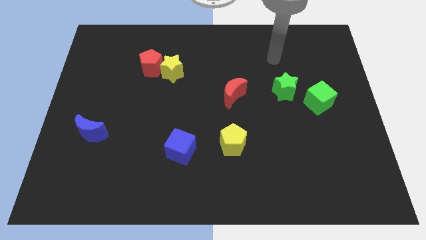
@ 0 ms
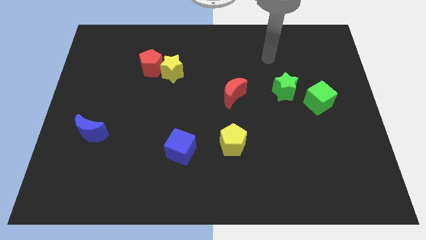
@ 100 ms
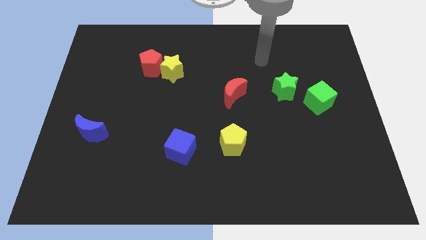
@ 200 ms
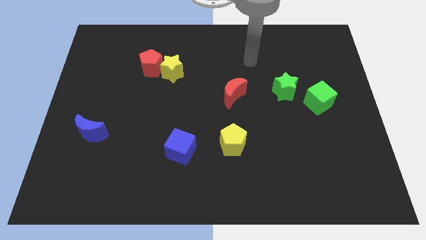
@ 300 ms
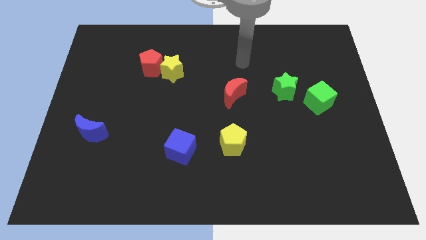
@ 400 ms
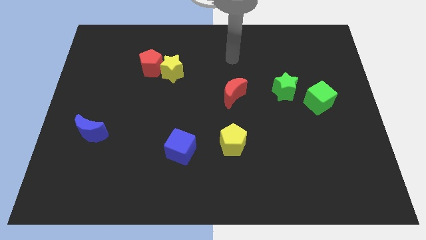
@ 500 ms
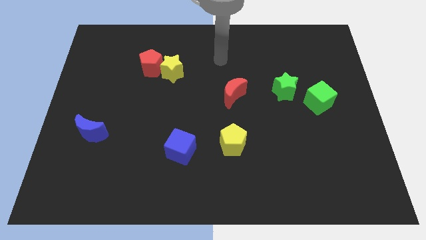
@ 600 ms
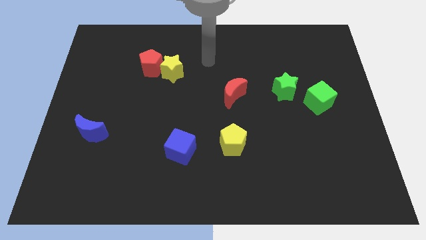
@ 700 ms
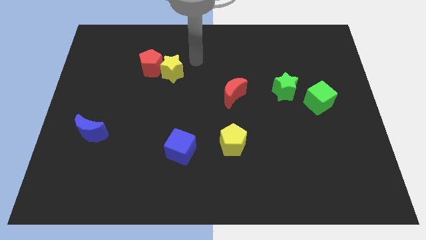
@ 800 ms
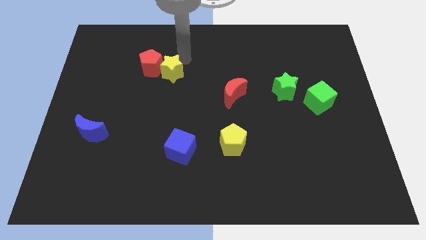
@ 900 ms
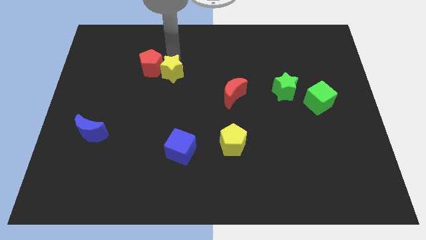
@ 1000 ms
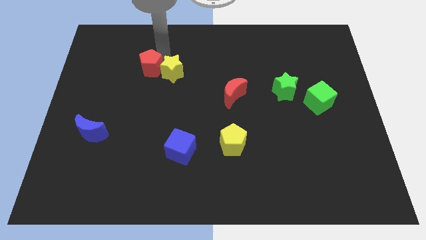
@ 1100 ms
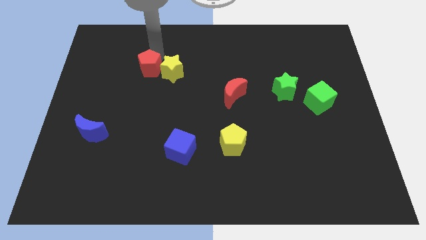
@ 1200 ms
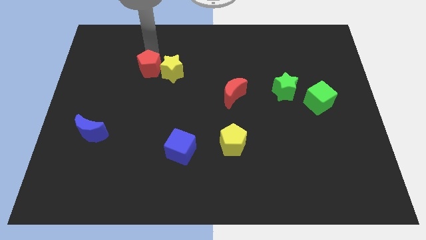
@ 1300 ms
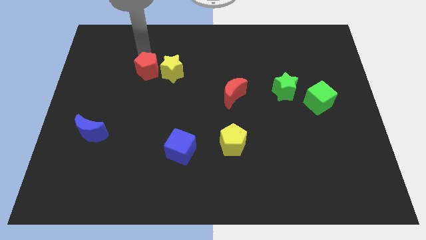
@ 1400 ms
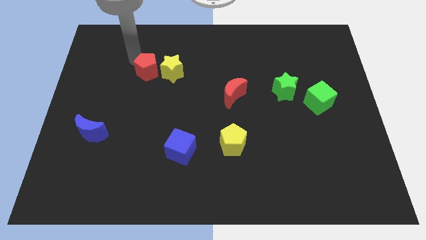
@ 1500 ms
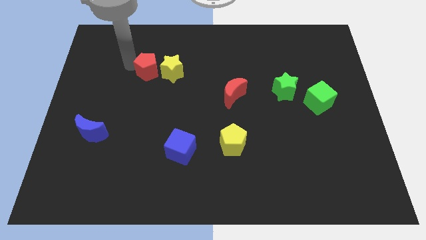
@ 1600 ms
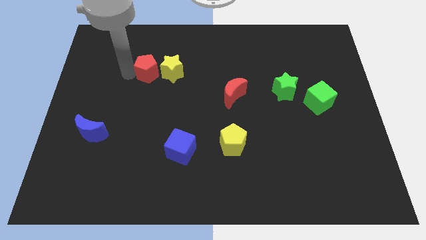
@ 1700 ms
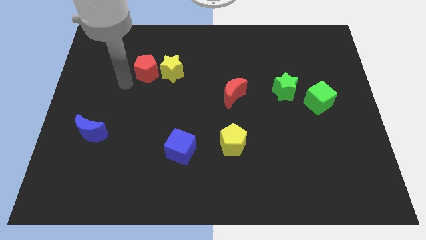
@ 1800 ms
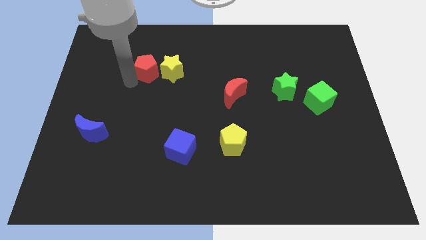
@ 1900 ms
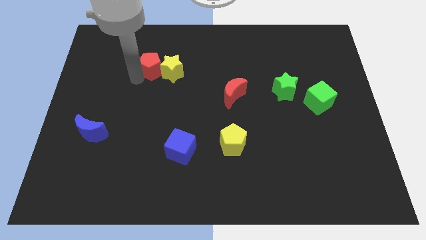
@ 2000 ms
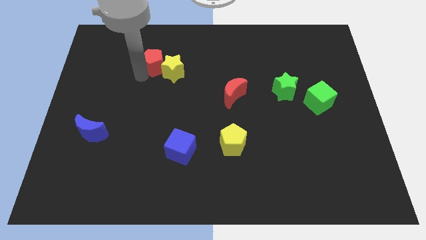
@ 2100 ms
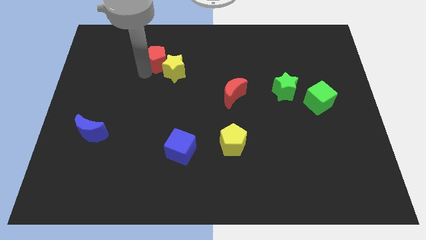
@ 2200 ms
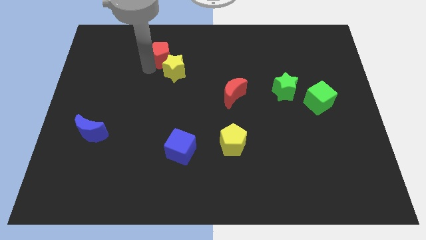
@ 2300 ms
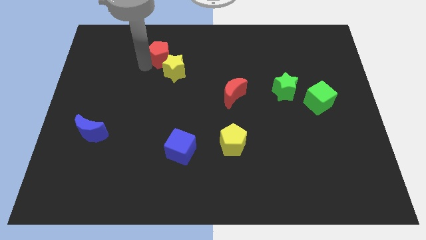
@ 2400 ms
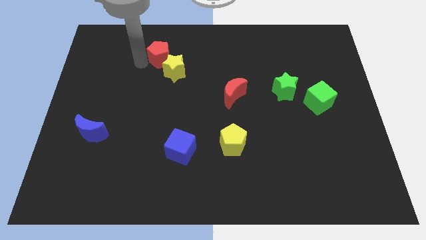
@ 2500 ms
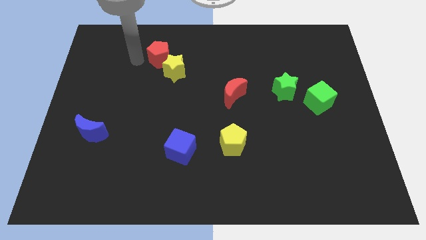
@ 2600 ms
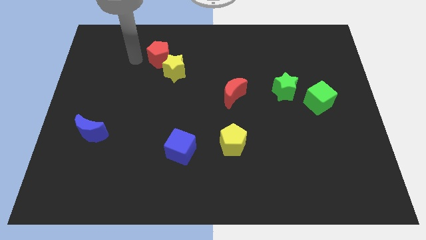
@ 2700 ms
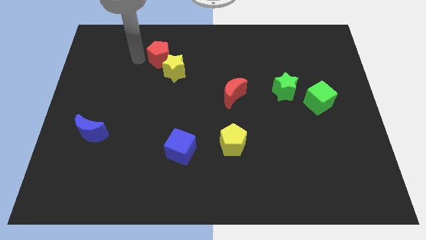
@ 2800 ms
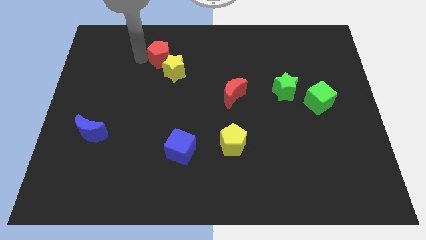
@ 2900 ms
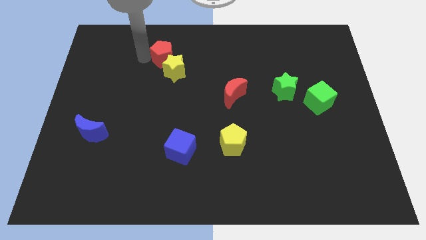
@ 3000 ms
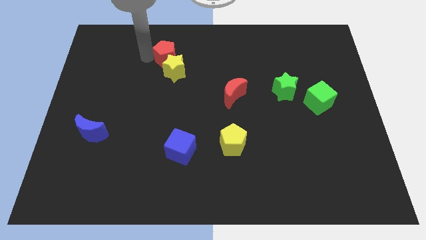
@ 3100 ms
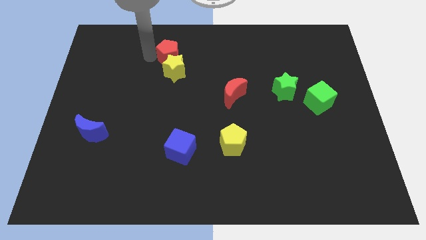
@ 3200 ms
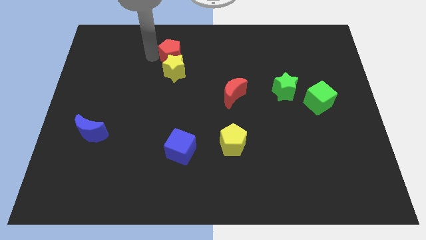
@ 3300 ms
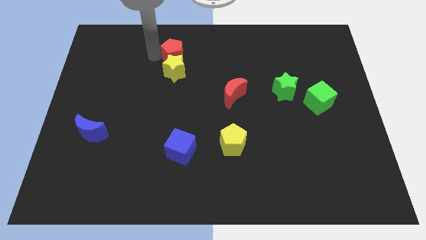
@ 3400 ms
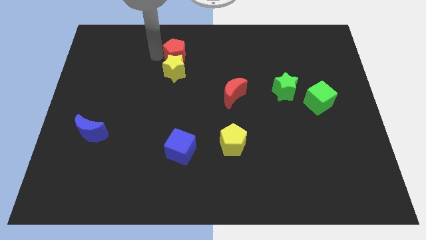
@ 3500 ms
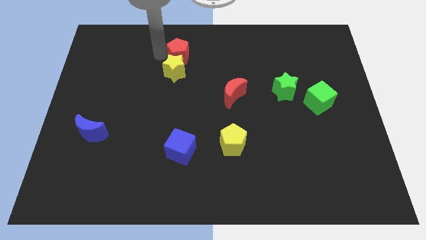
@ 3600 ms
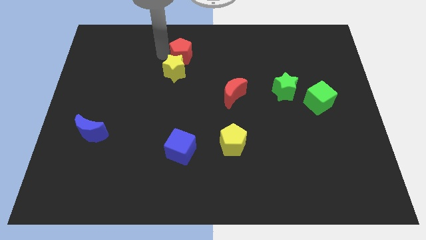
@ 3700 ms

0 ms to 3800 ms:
slide the red pentagon right a little bit

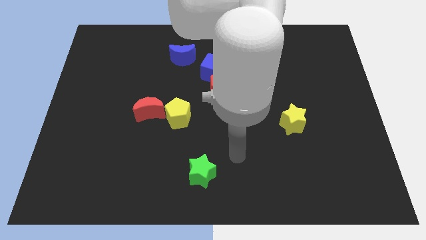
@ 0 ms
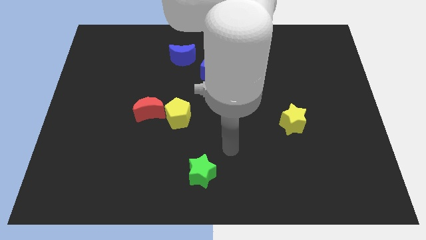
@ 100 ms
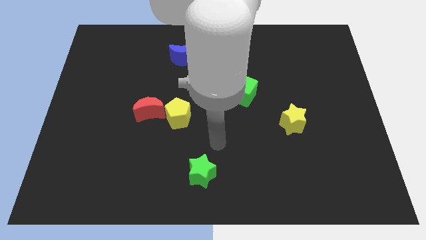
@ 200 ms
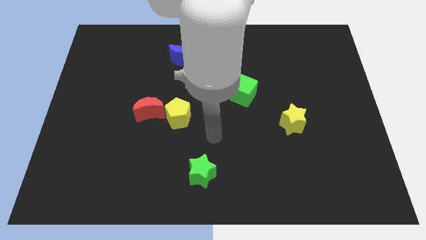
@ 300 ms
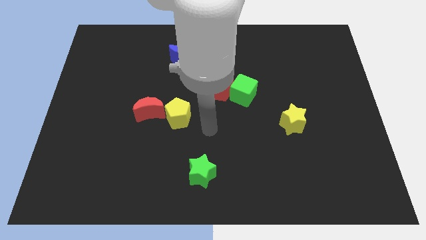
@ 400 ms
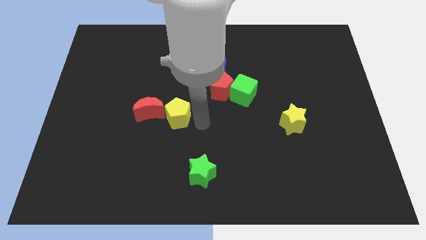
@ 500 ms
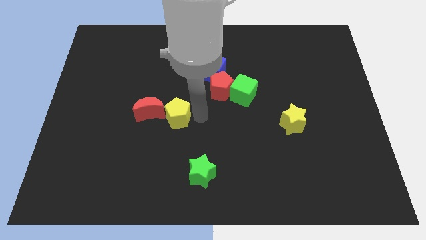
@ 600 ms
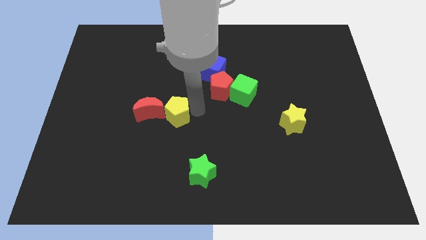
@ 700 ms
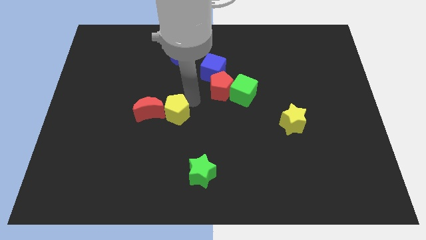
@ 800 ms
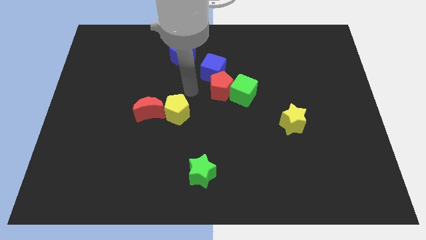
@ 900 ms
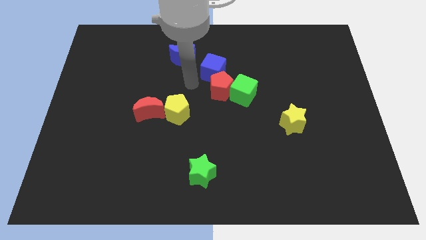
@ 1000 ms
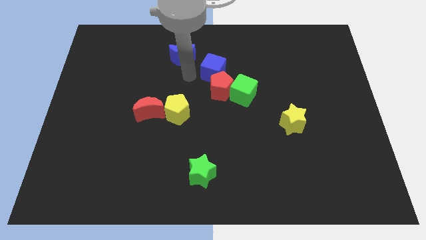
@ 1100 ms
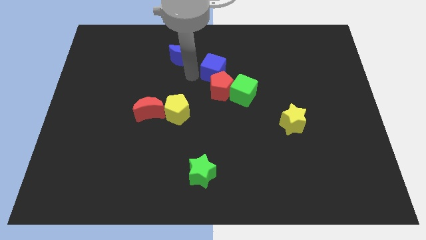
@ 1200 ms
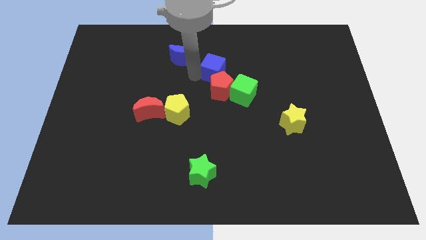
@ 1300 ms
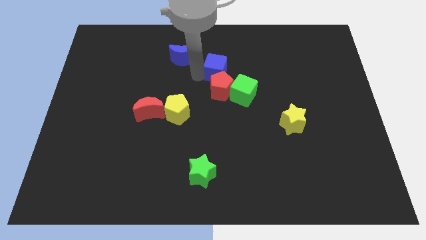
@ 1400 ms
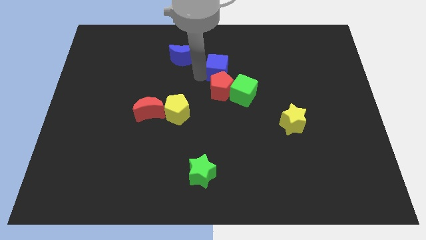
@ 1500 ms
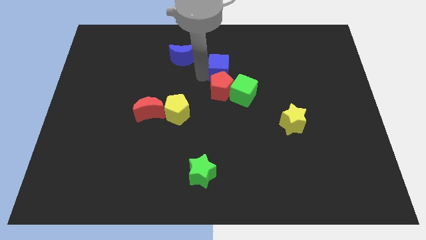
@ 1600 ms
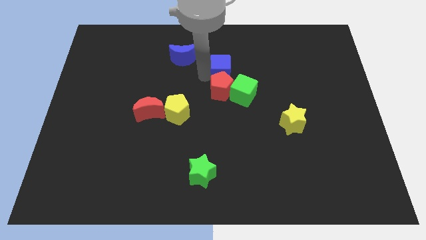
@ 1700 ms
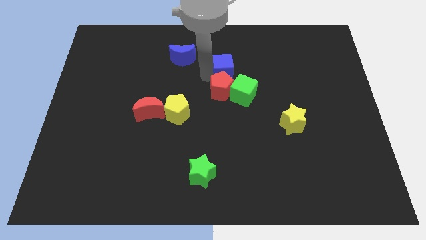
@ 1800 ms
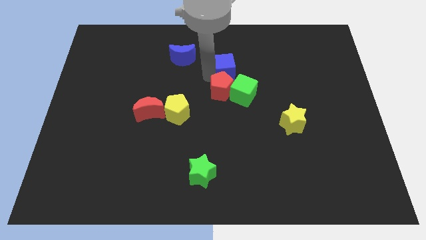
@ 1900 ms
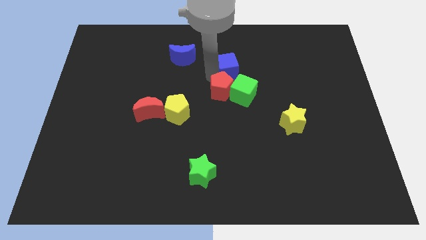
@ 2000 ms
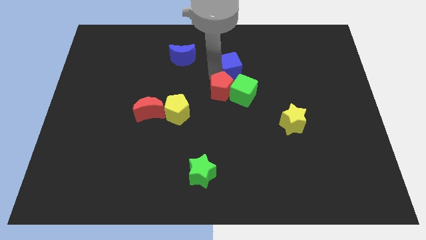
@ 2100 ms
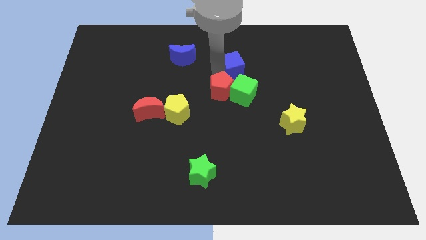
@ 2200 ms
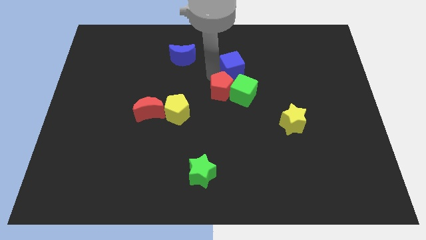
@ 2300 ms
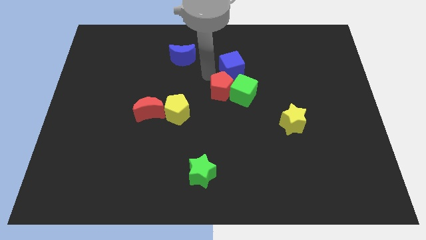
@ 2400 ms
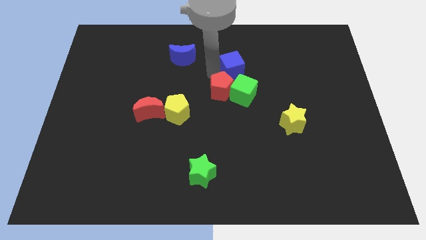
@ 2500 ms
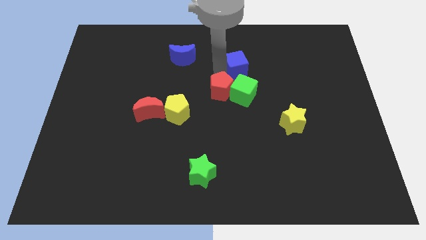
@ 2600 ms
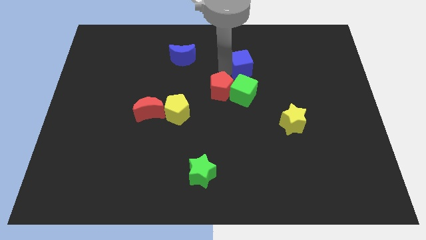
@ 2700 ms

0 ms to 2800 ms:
push the blue cube a little to the right

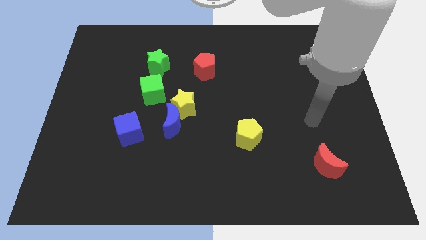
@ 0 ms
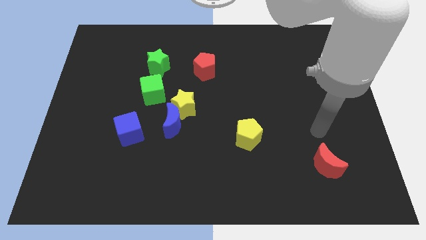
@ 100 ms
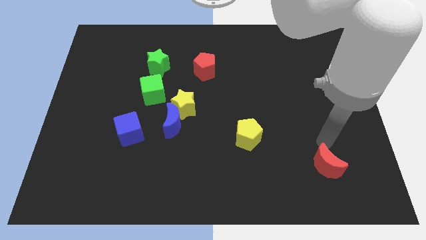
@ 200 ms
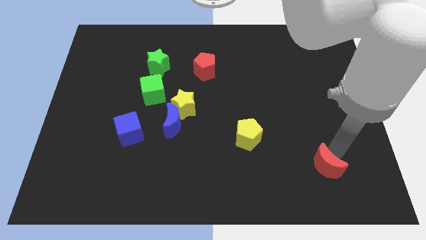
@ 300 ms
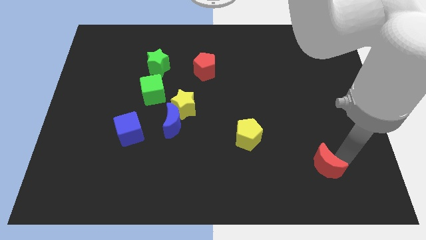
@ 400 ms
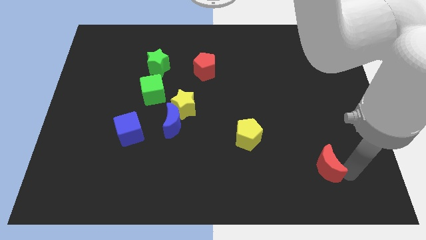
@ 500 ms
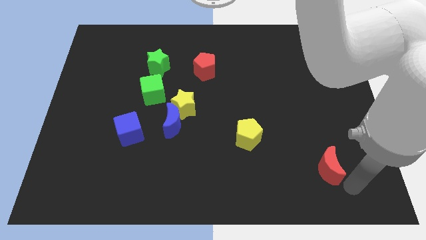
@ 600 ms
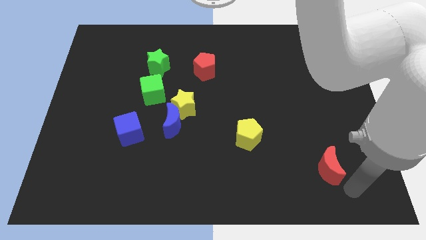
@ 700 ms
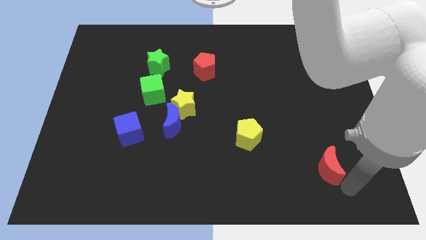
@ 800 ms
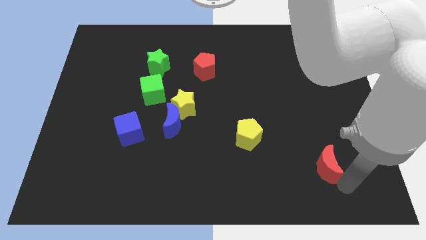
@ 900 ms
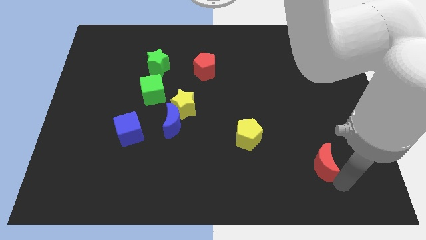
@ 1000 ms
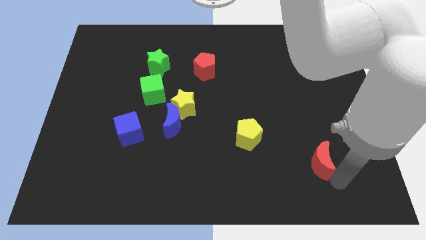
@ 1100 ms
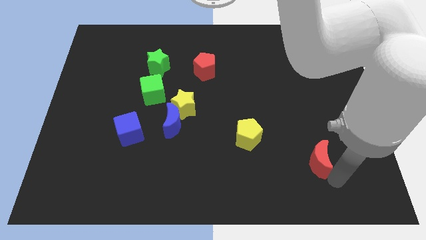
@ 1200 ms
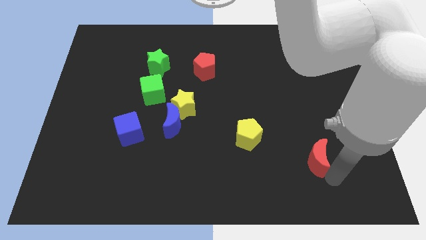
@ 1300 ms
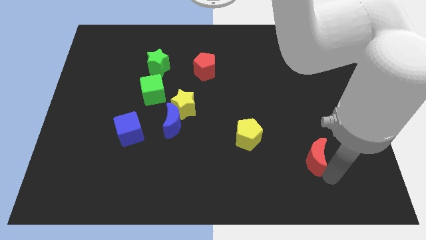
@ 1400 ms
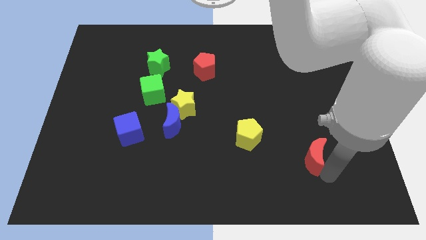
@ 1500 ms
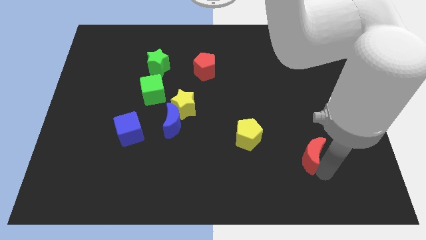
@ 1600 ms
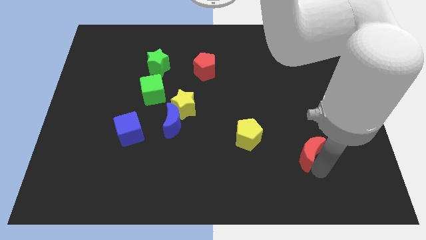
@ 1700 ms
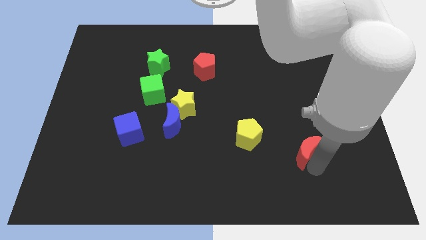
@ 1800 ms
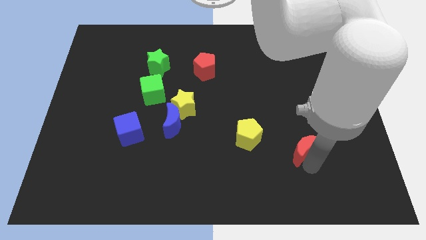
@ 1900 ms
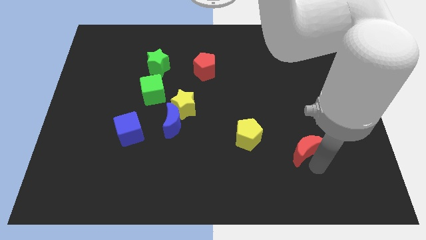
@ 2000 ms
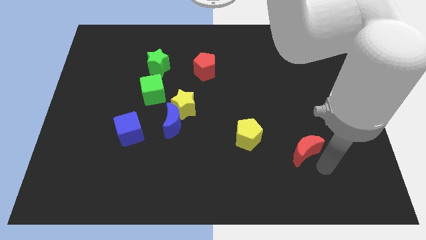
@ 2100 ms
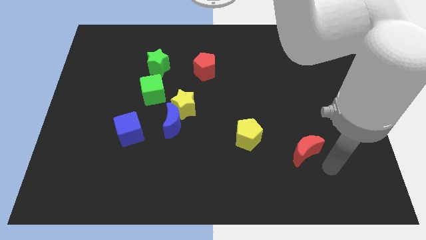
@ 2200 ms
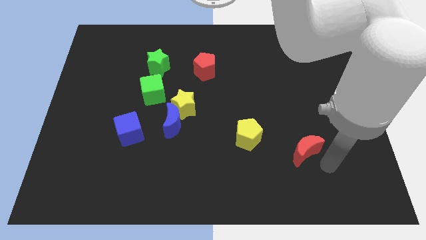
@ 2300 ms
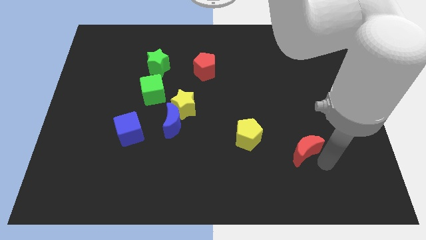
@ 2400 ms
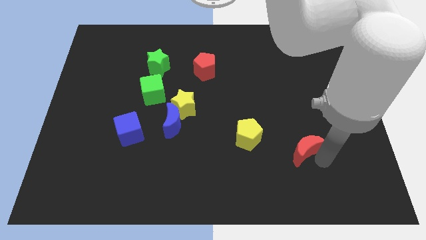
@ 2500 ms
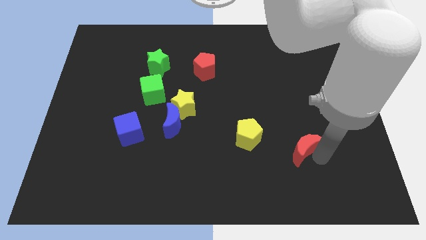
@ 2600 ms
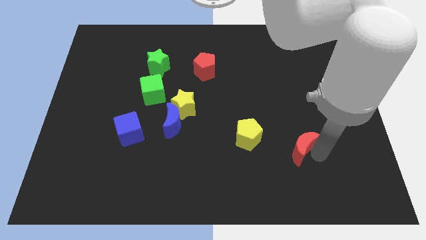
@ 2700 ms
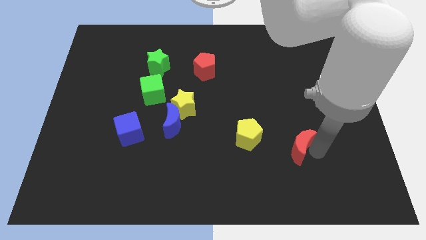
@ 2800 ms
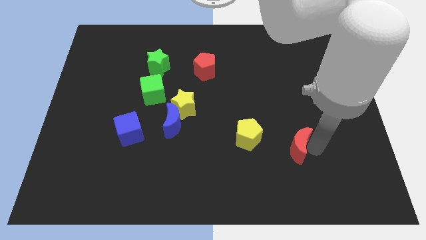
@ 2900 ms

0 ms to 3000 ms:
move the red moon upwards and to the left a little bit
